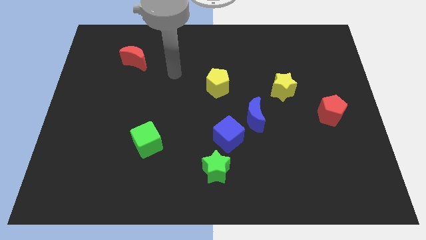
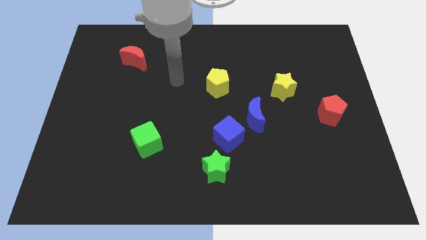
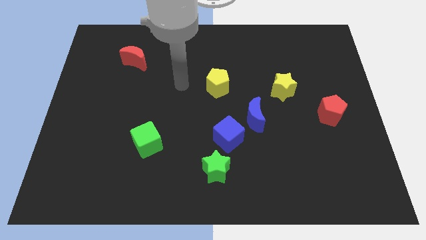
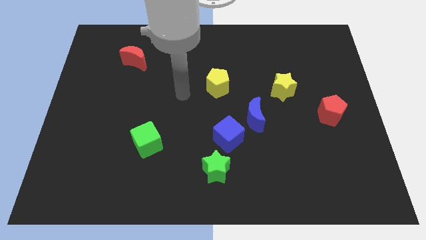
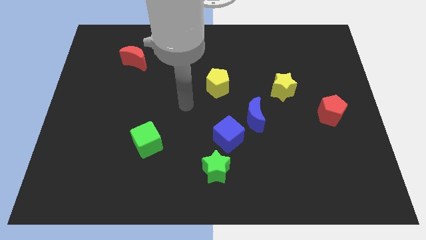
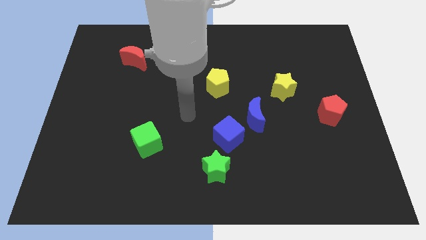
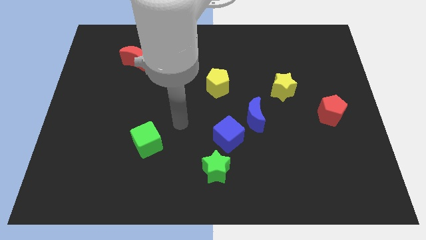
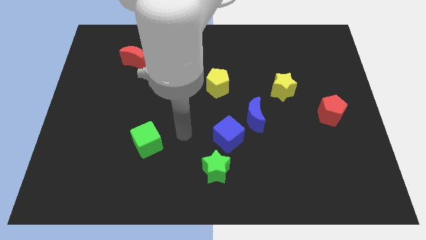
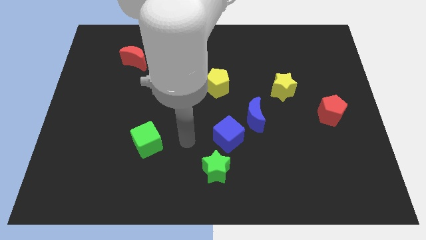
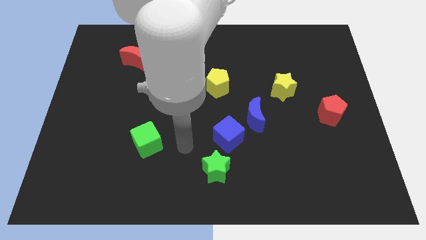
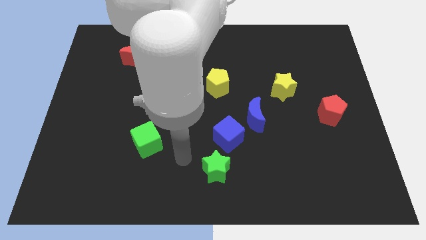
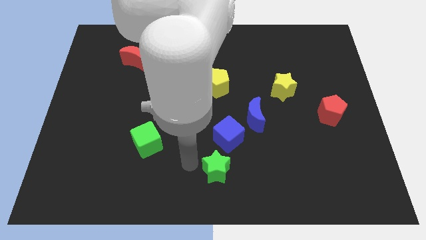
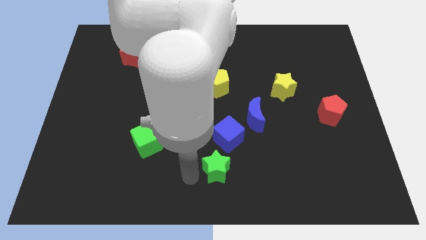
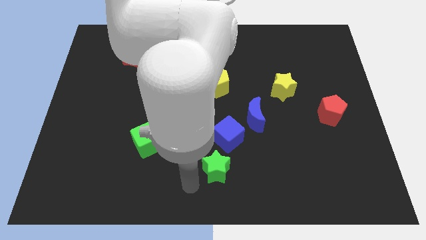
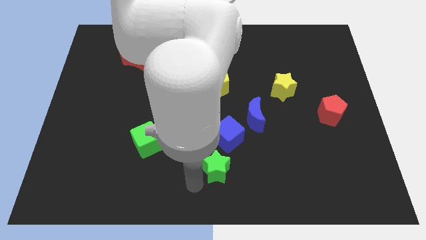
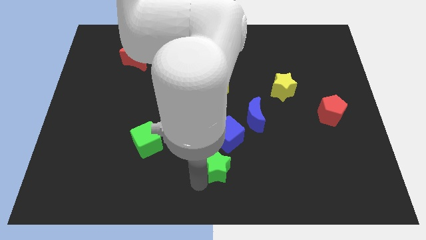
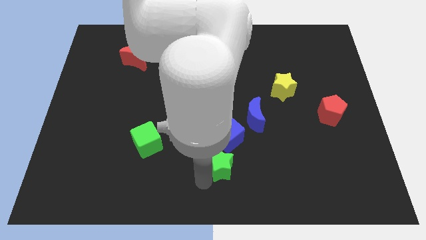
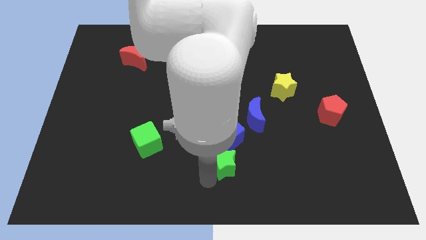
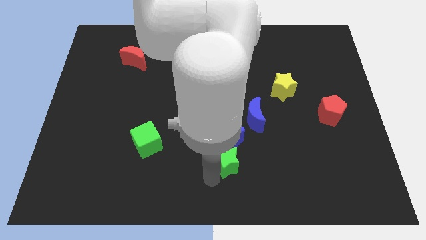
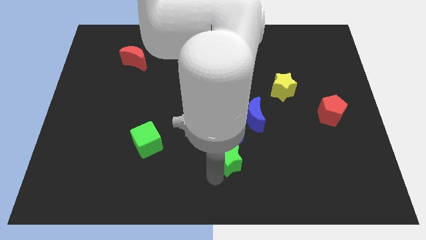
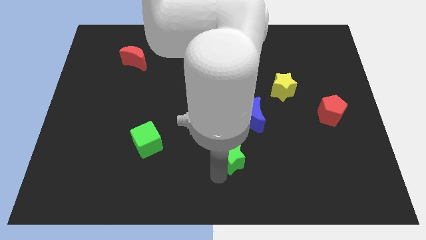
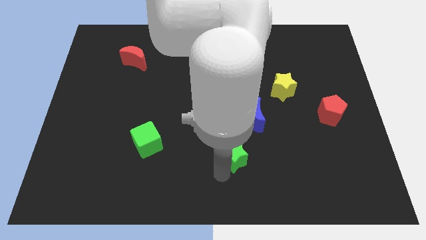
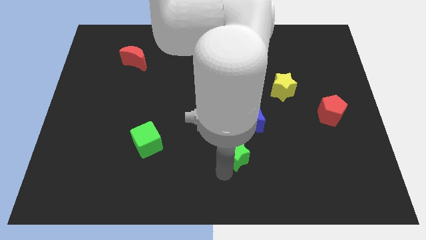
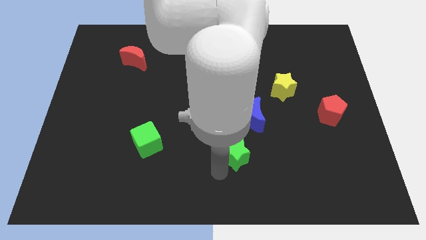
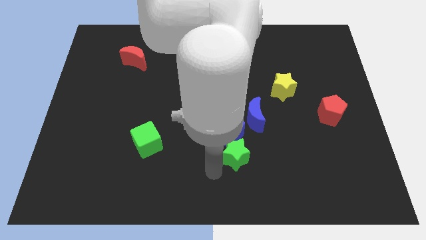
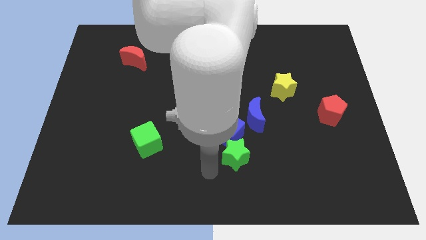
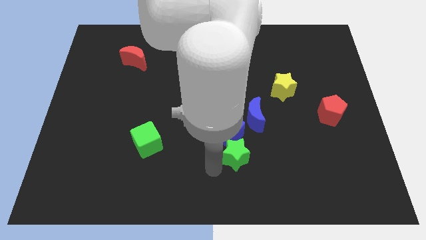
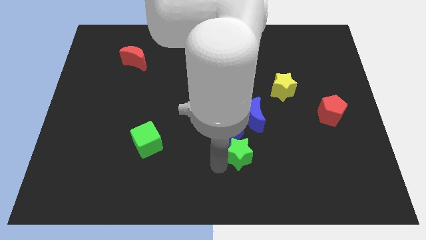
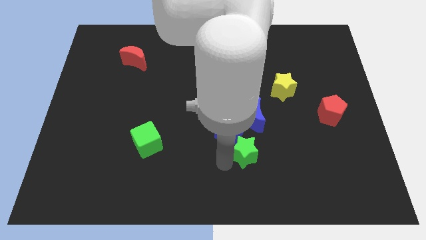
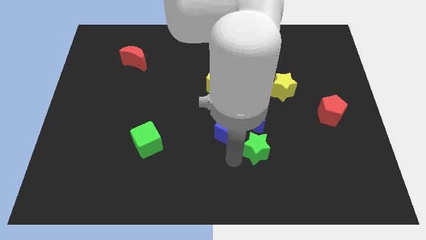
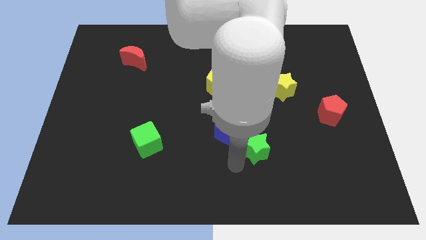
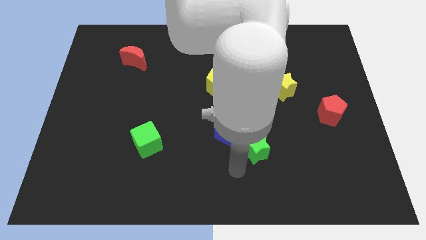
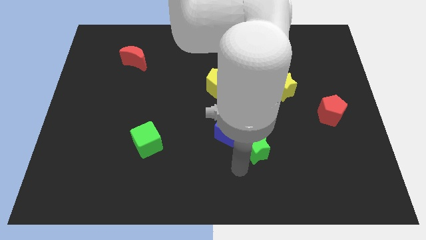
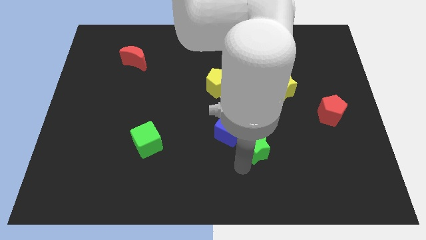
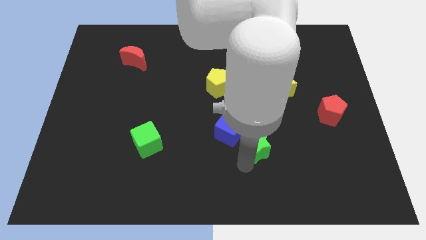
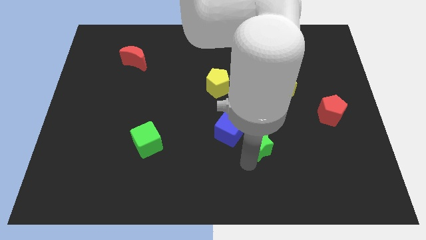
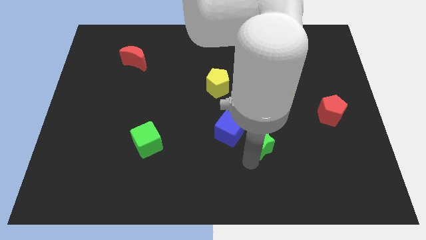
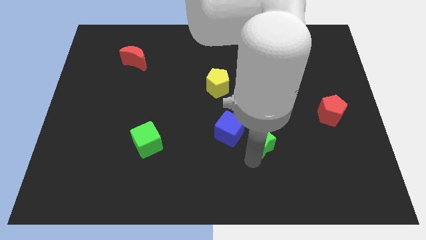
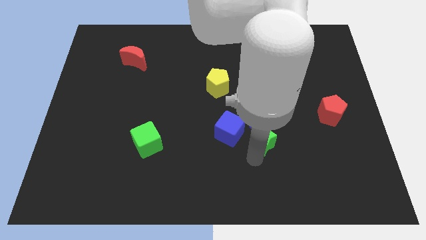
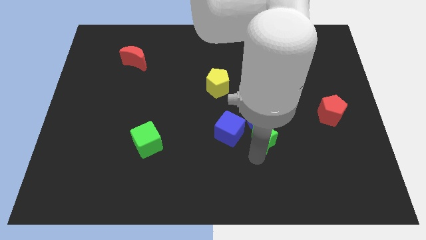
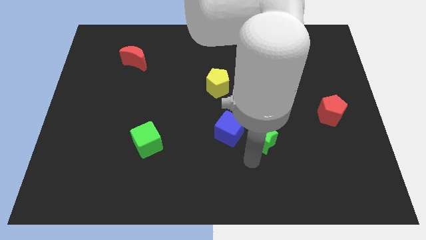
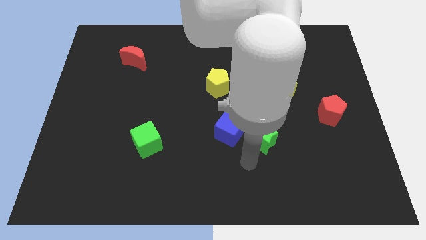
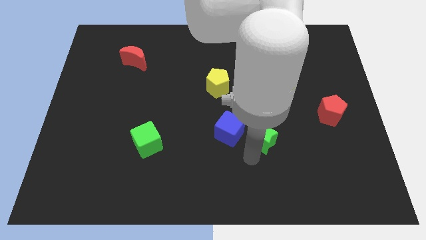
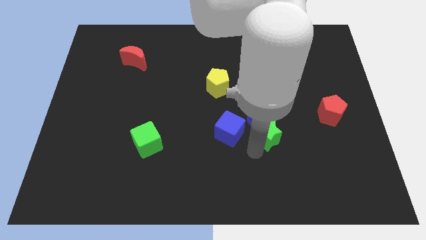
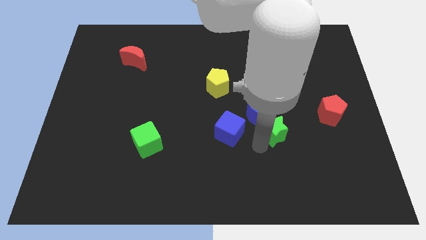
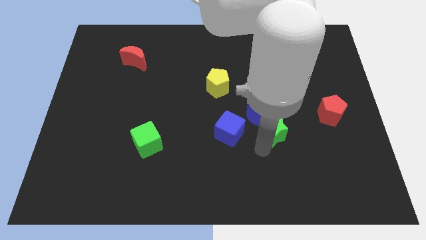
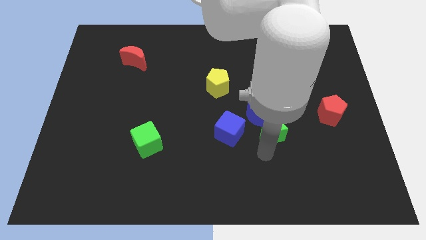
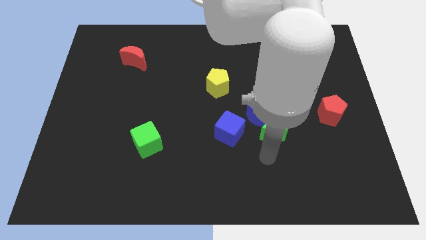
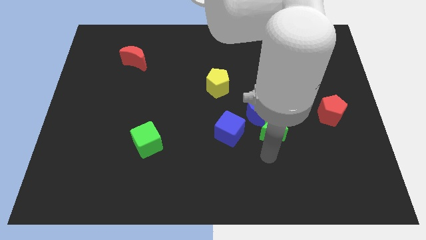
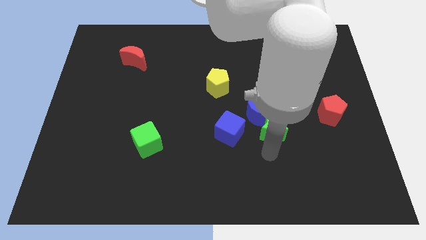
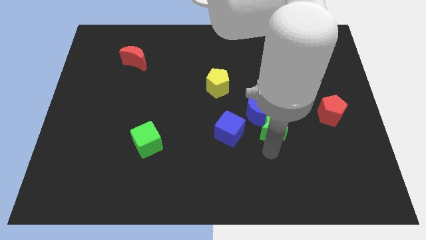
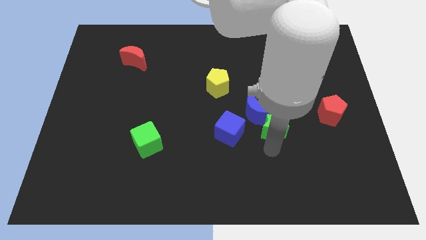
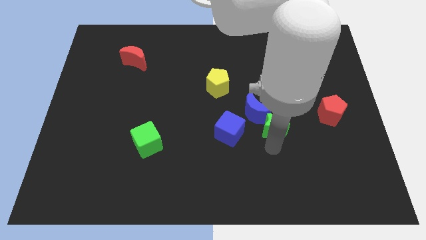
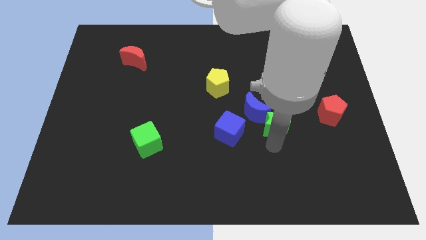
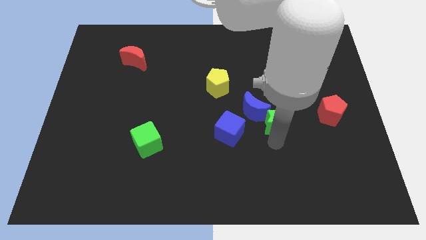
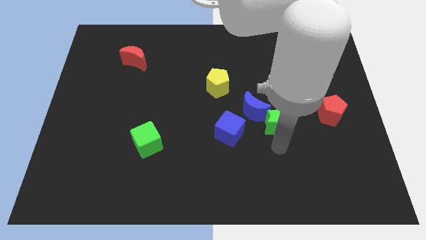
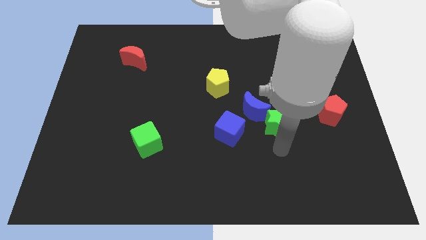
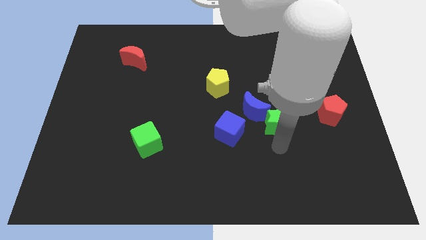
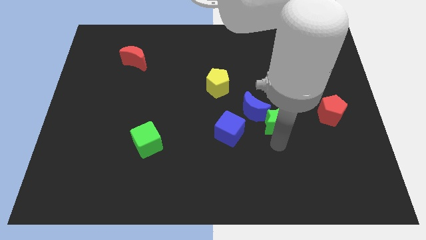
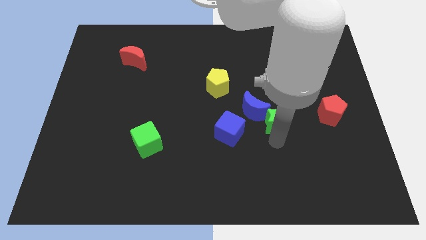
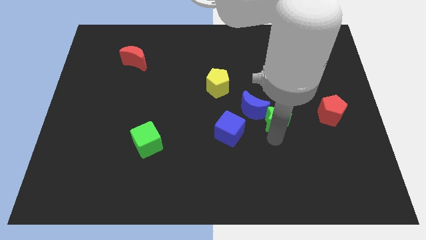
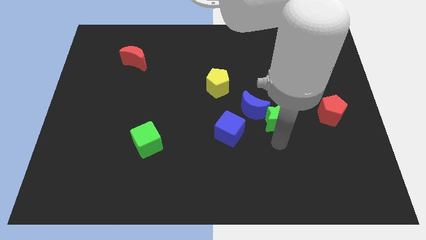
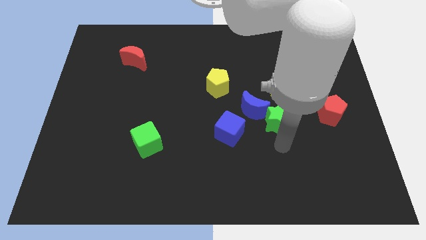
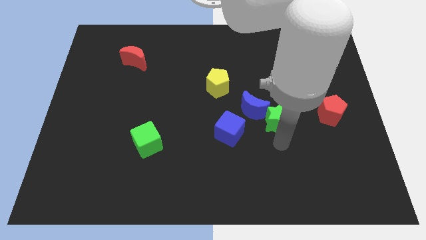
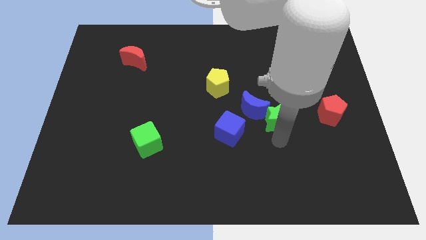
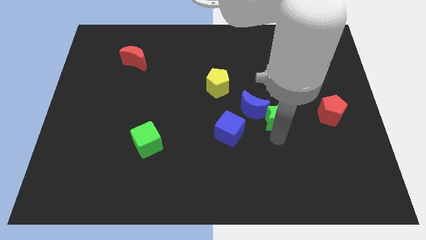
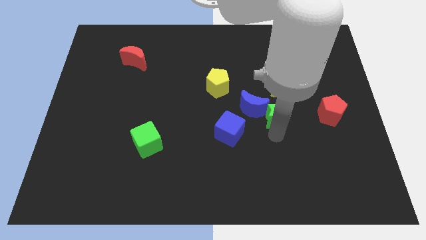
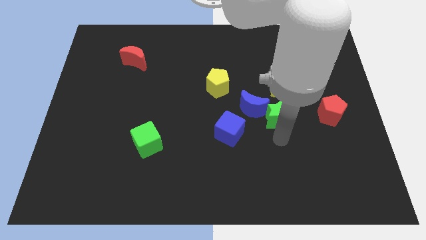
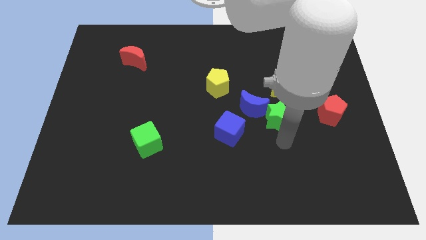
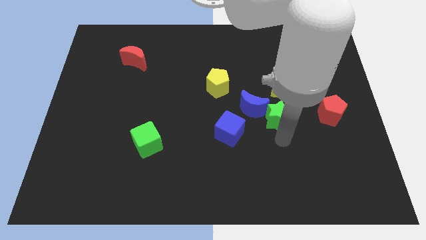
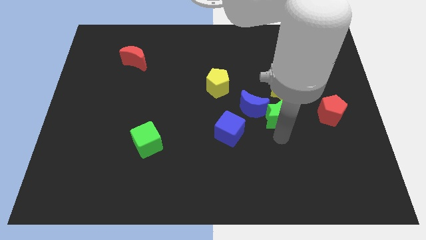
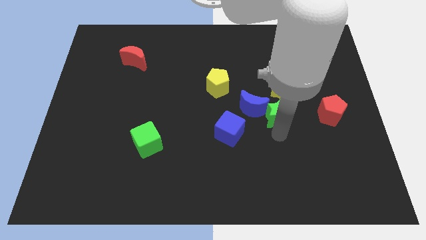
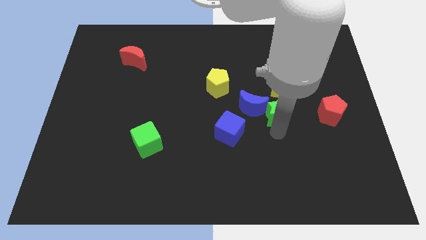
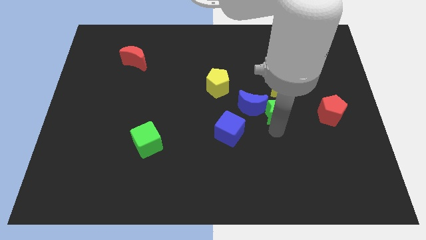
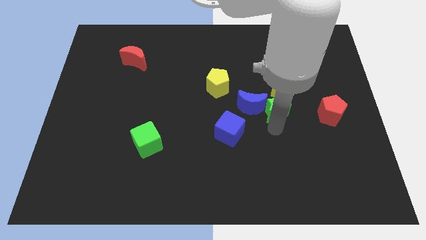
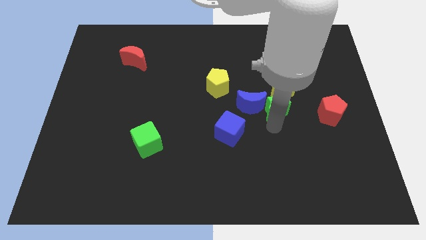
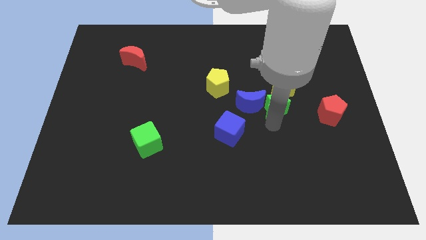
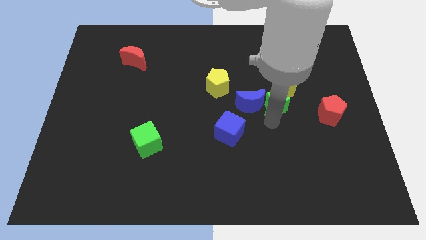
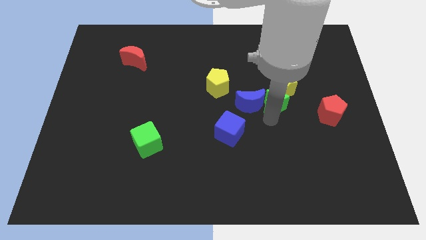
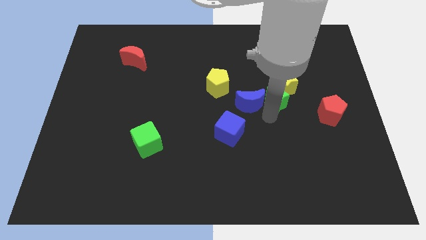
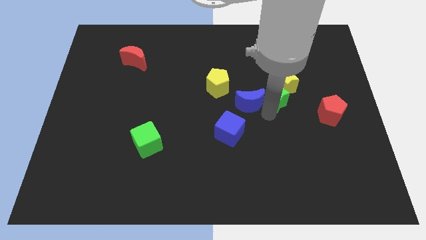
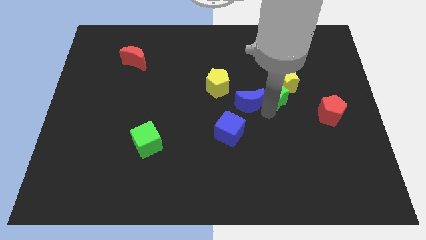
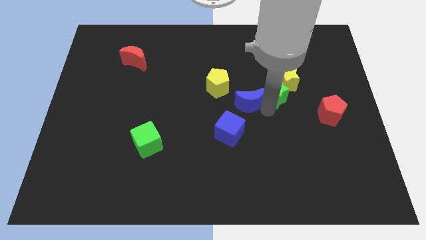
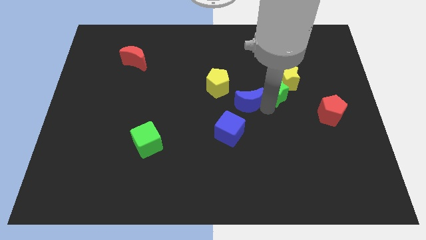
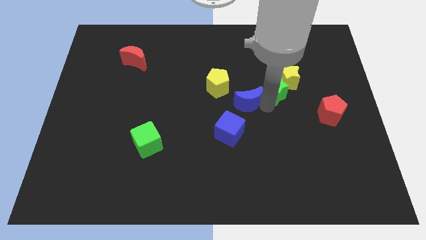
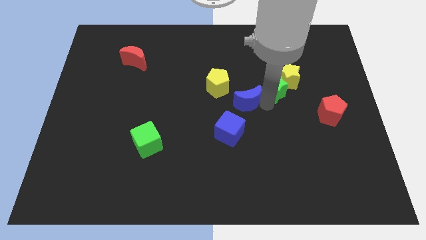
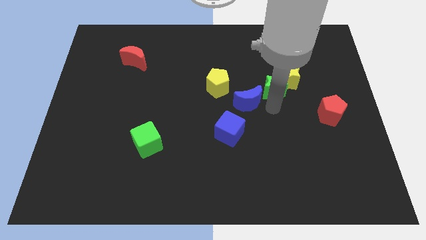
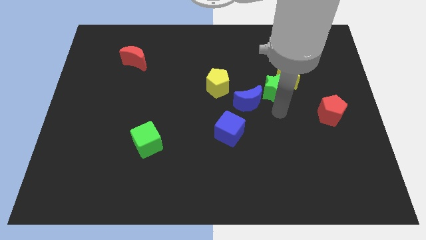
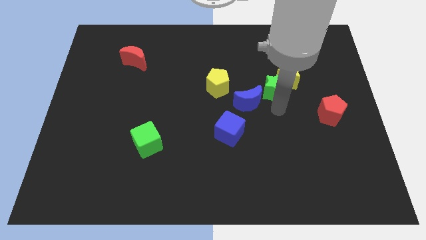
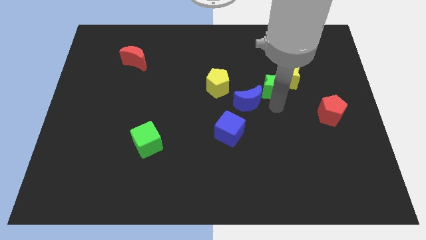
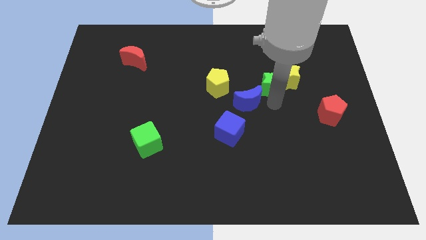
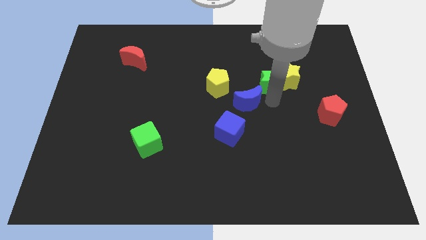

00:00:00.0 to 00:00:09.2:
put the green star diagonally up and to the left of the yellow star
